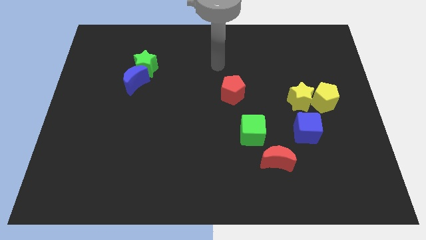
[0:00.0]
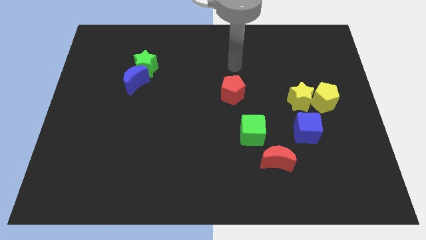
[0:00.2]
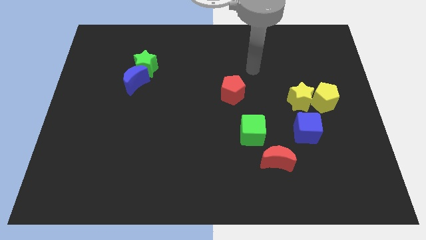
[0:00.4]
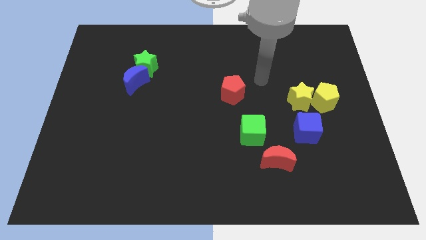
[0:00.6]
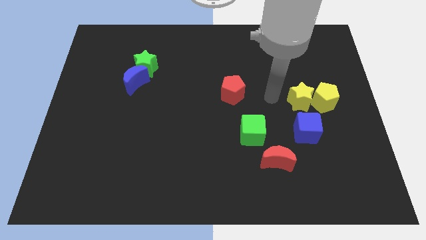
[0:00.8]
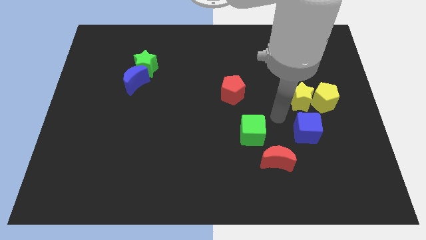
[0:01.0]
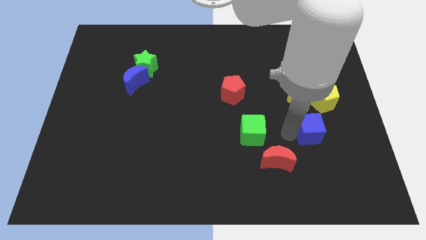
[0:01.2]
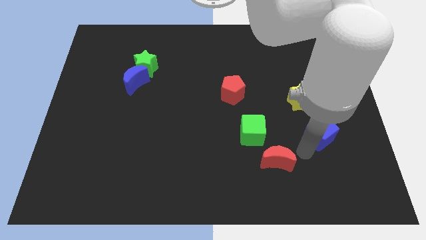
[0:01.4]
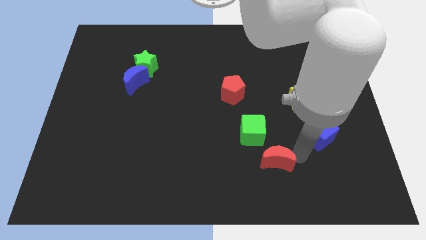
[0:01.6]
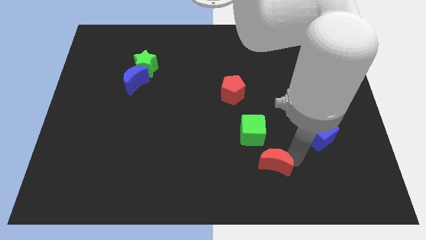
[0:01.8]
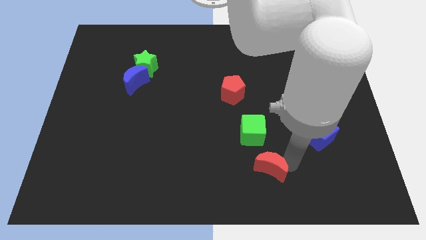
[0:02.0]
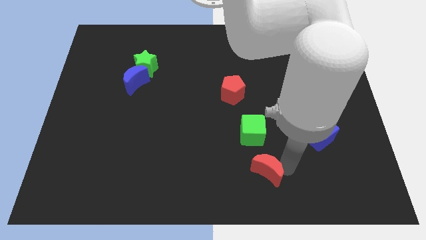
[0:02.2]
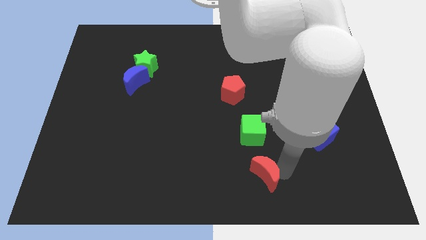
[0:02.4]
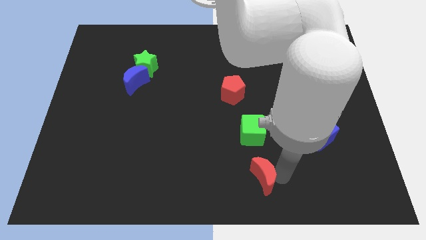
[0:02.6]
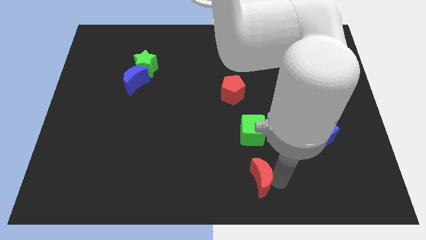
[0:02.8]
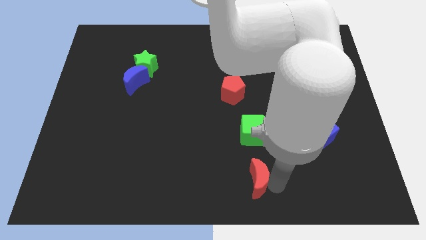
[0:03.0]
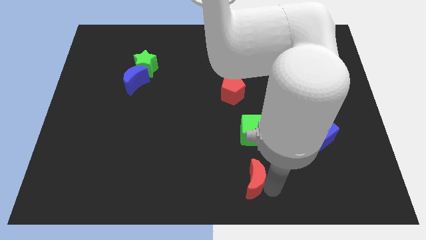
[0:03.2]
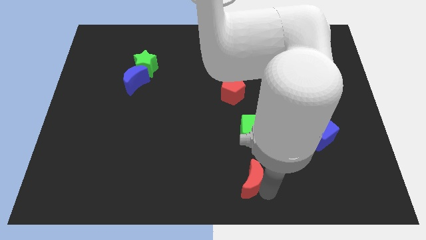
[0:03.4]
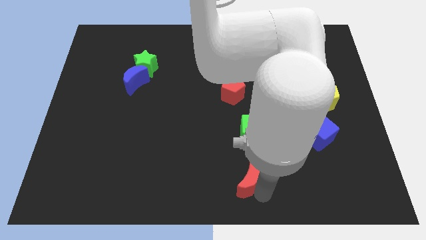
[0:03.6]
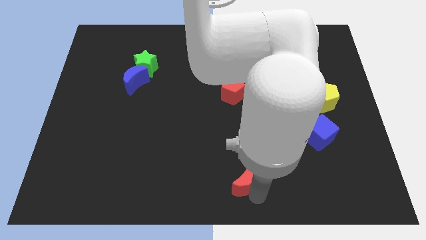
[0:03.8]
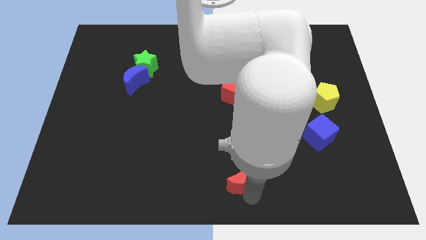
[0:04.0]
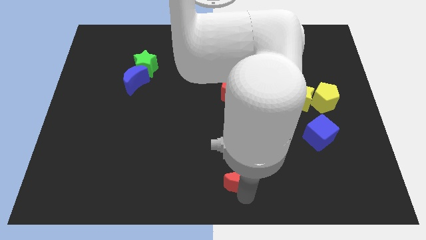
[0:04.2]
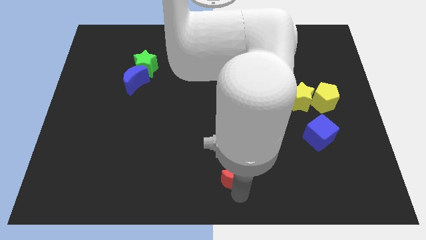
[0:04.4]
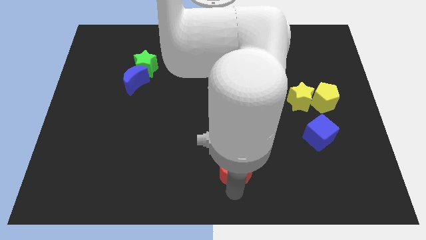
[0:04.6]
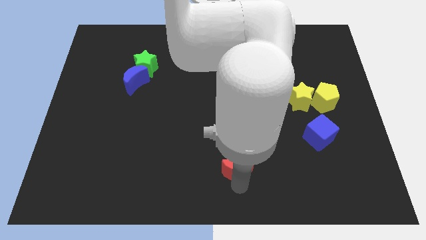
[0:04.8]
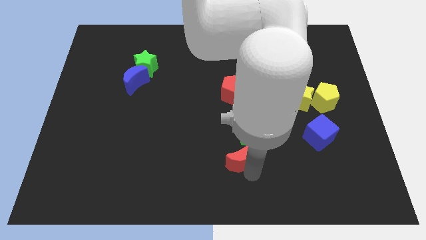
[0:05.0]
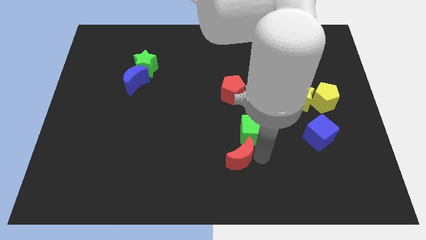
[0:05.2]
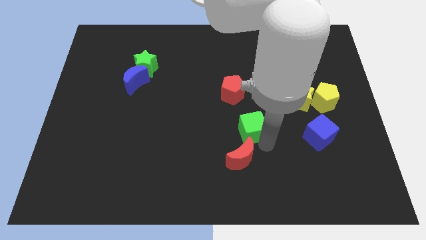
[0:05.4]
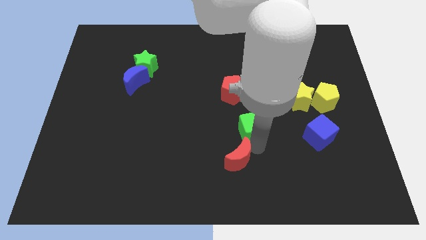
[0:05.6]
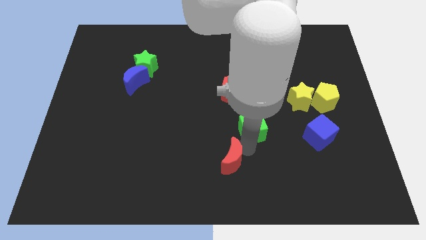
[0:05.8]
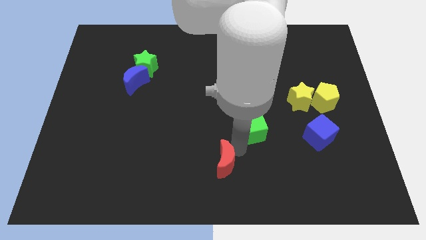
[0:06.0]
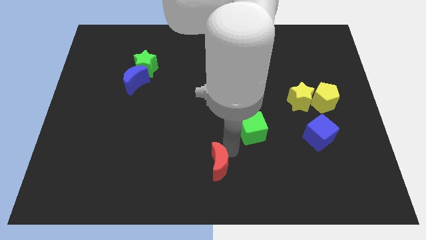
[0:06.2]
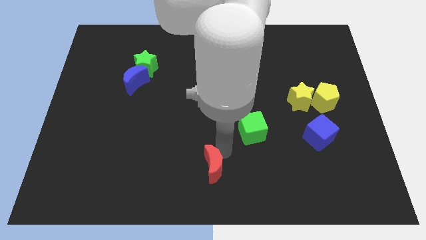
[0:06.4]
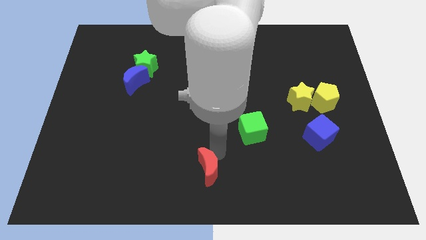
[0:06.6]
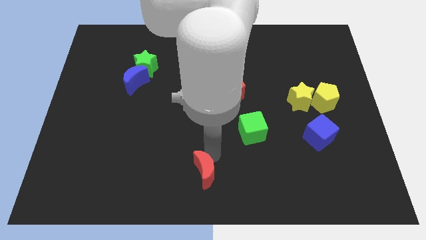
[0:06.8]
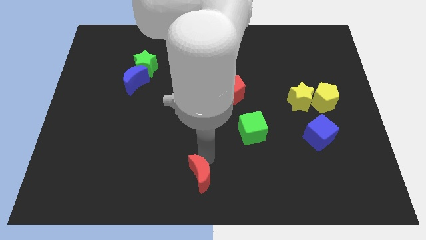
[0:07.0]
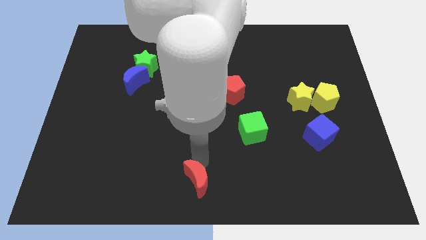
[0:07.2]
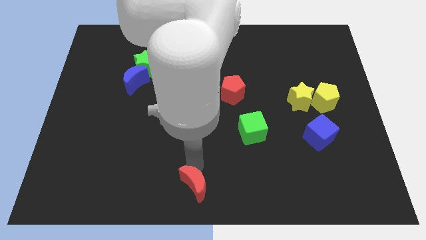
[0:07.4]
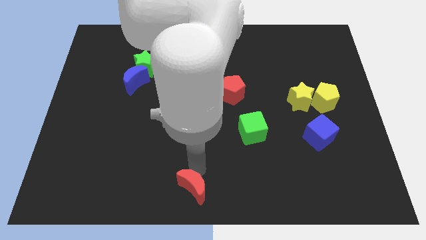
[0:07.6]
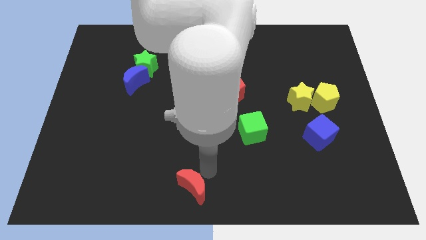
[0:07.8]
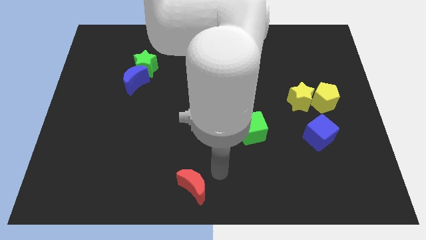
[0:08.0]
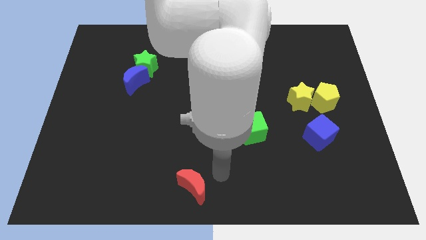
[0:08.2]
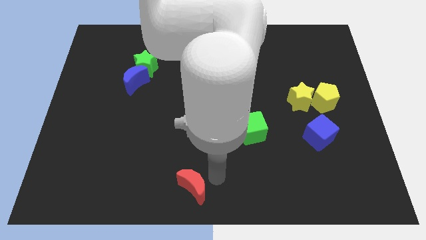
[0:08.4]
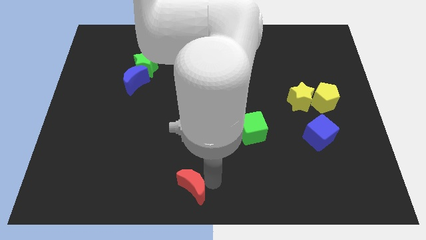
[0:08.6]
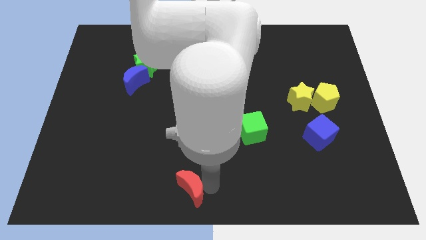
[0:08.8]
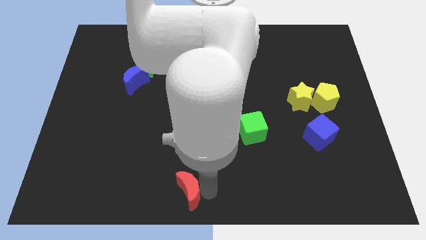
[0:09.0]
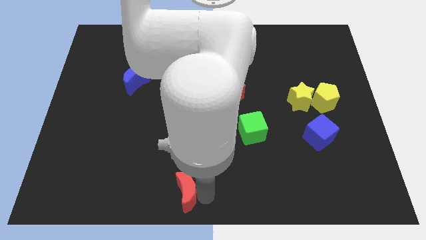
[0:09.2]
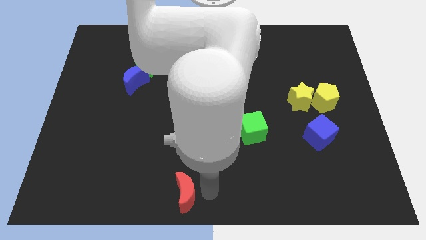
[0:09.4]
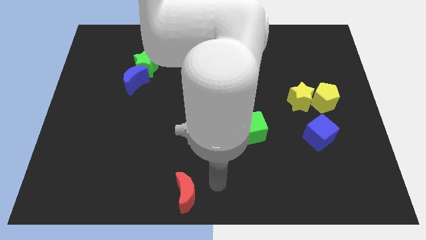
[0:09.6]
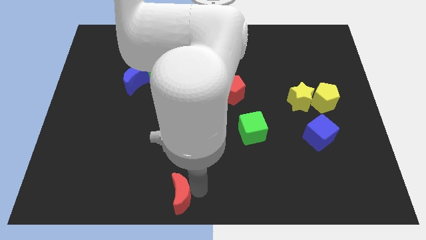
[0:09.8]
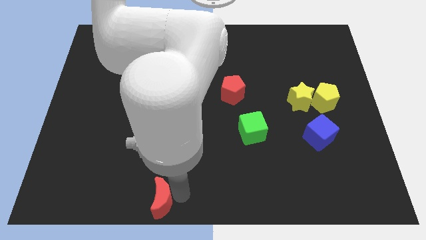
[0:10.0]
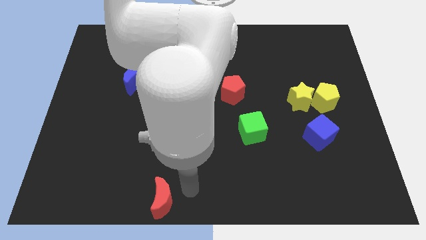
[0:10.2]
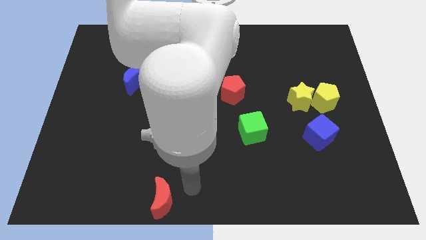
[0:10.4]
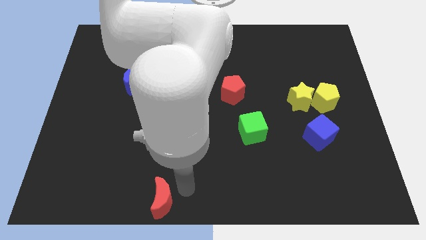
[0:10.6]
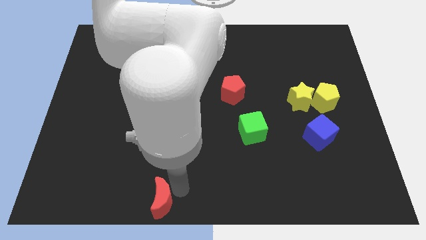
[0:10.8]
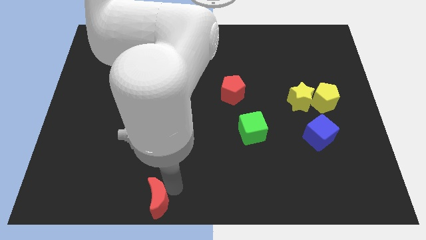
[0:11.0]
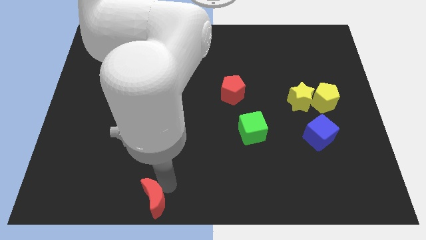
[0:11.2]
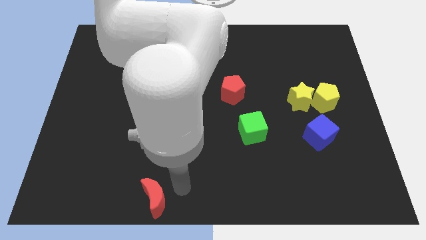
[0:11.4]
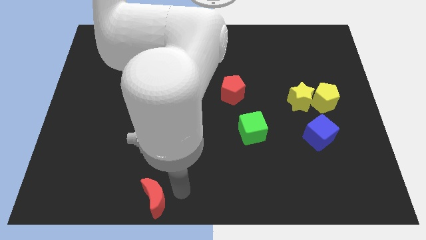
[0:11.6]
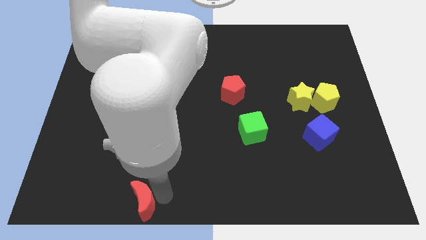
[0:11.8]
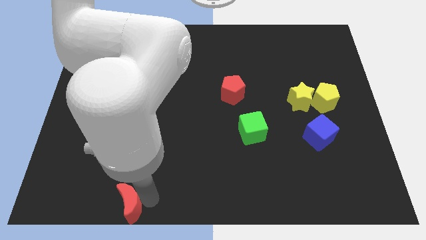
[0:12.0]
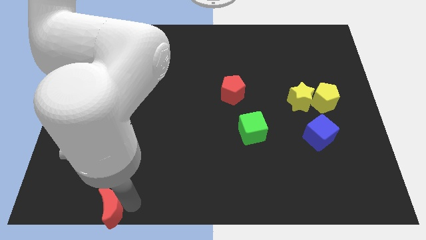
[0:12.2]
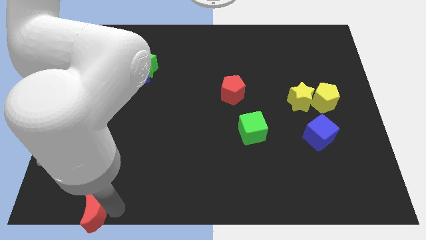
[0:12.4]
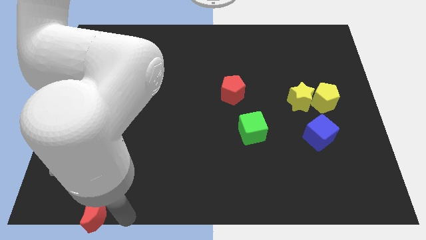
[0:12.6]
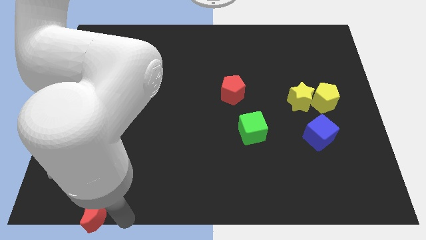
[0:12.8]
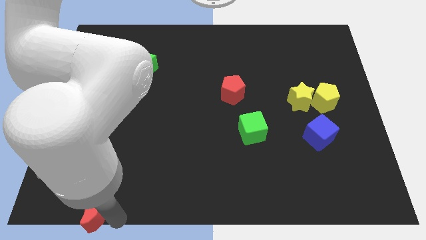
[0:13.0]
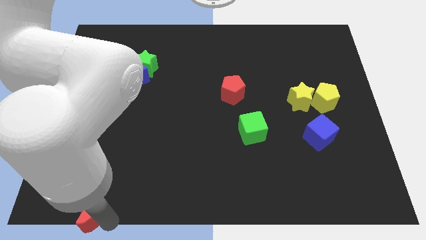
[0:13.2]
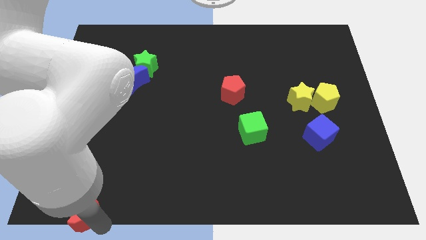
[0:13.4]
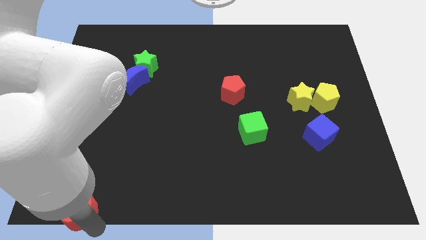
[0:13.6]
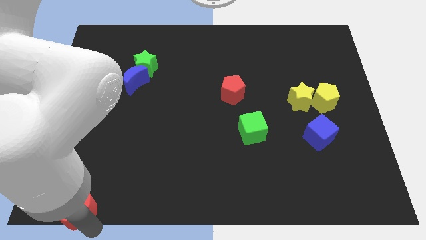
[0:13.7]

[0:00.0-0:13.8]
put the red moon to the bottom left corner
